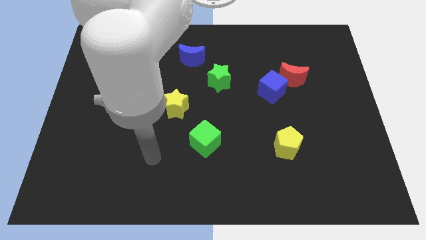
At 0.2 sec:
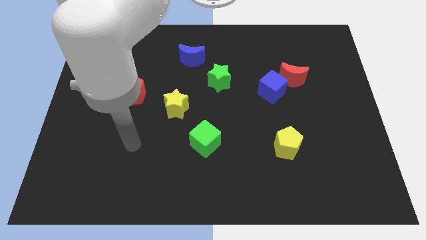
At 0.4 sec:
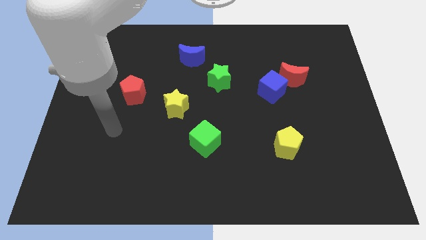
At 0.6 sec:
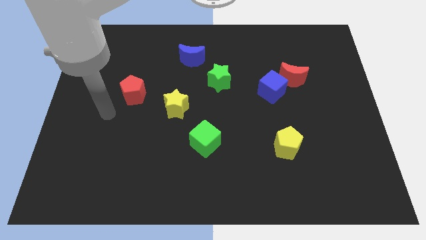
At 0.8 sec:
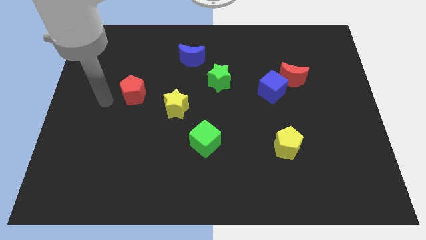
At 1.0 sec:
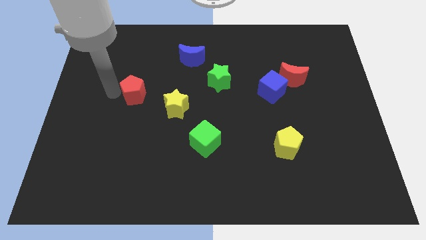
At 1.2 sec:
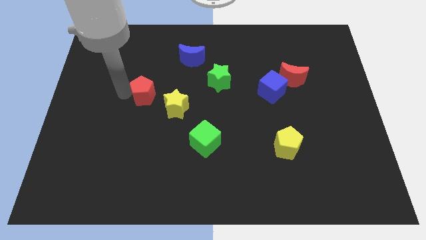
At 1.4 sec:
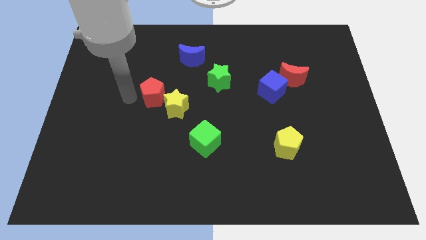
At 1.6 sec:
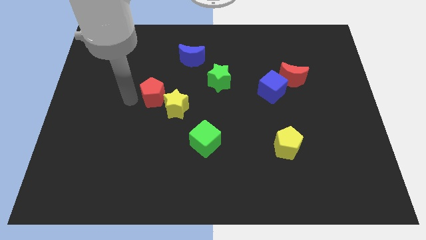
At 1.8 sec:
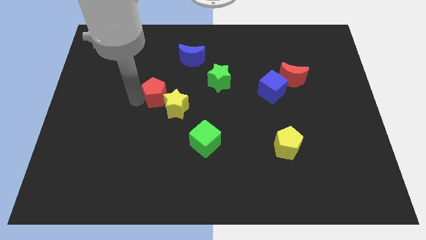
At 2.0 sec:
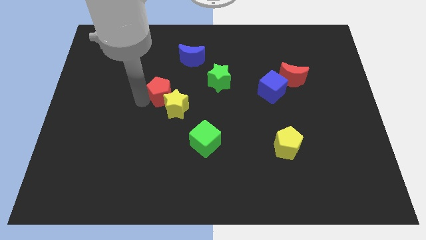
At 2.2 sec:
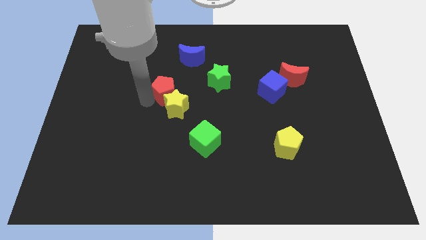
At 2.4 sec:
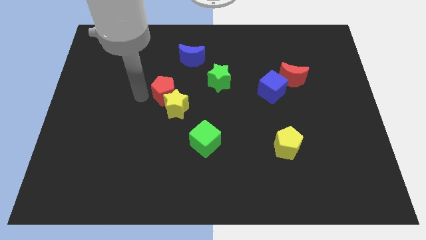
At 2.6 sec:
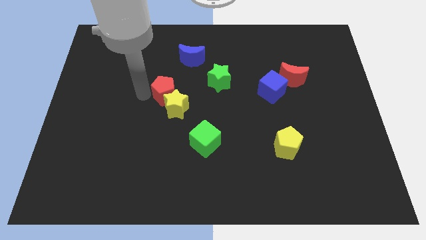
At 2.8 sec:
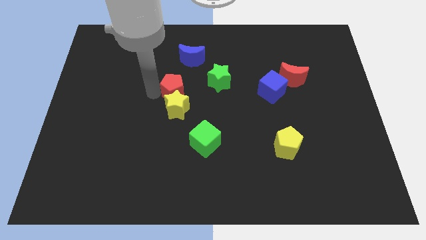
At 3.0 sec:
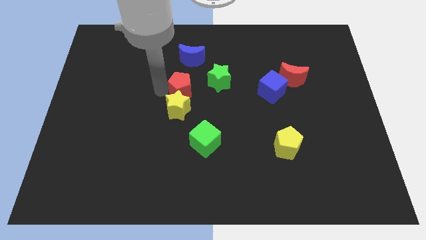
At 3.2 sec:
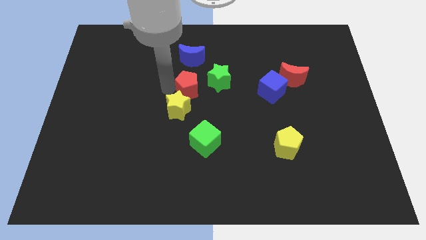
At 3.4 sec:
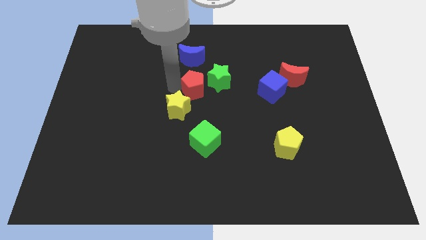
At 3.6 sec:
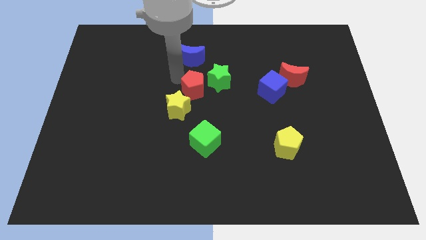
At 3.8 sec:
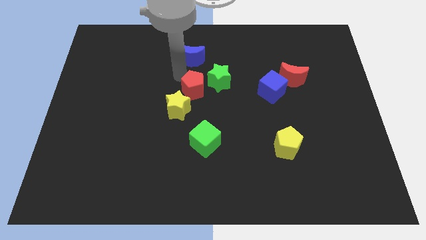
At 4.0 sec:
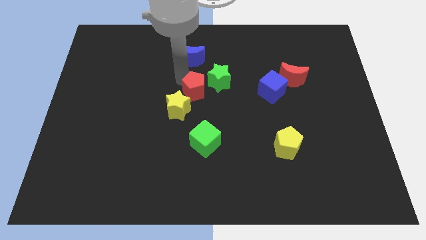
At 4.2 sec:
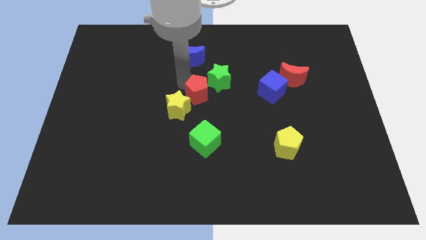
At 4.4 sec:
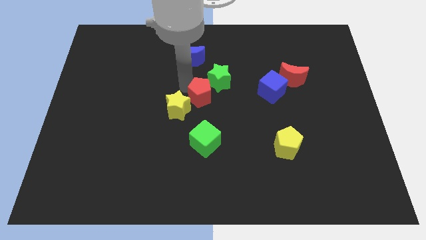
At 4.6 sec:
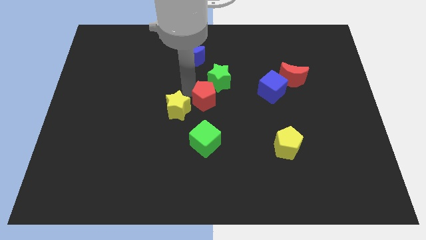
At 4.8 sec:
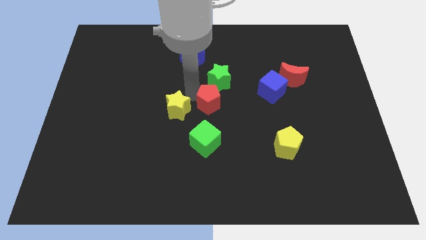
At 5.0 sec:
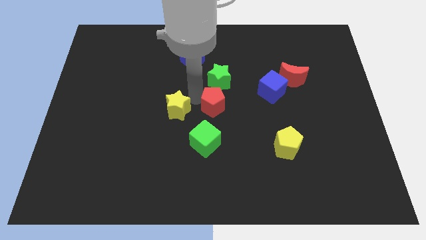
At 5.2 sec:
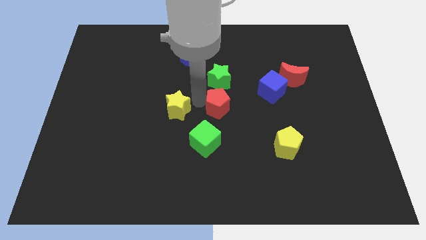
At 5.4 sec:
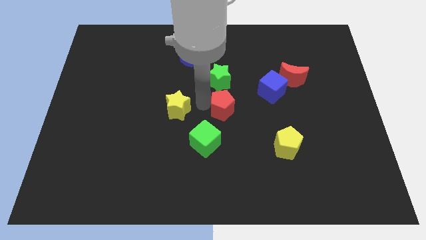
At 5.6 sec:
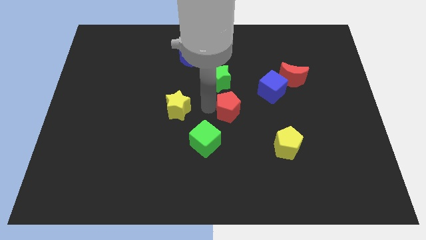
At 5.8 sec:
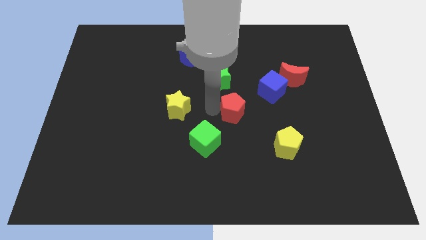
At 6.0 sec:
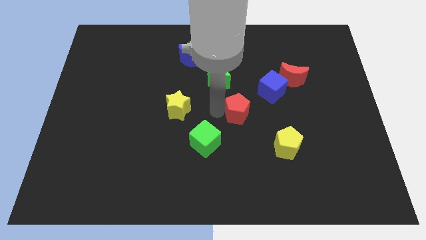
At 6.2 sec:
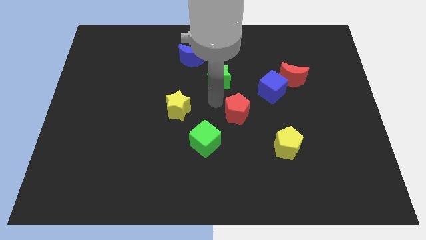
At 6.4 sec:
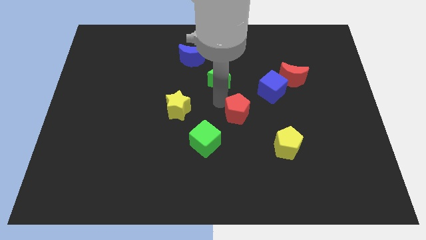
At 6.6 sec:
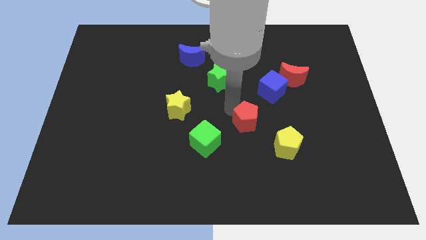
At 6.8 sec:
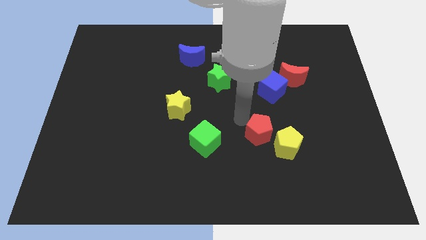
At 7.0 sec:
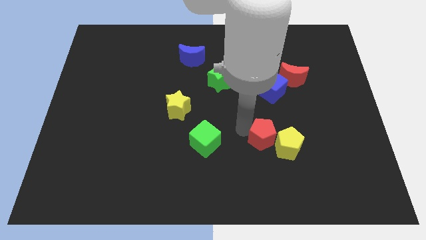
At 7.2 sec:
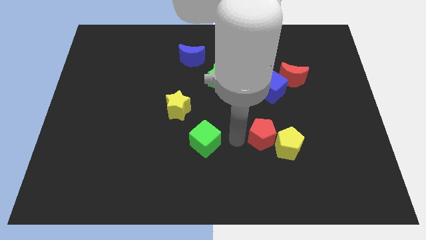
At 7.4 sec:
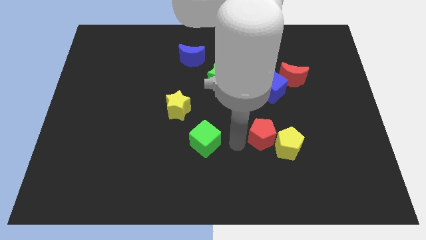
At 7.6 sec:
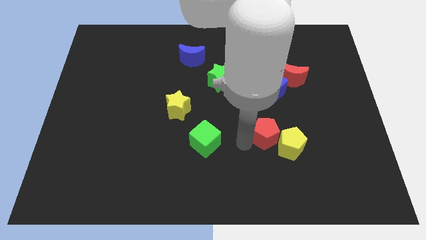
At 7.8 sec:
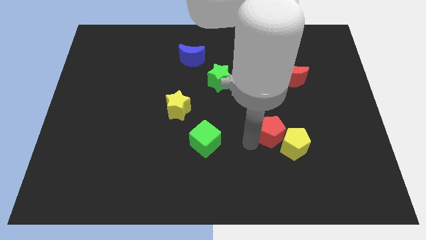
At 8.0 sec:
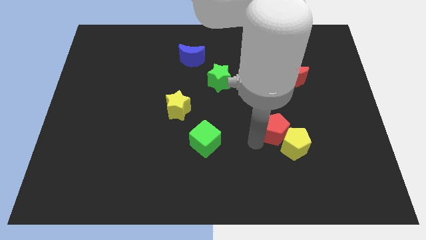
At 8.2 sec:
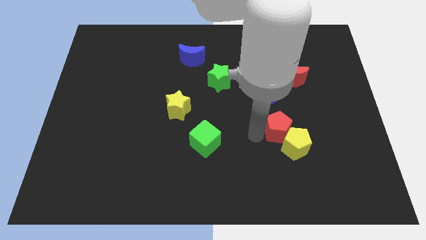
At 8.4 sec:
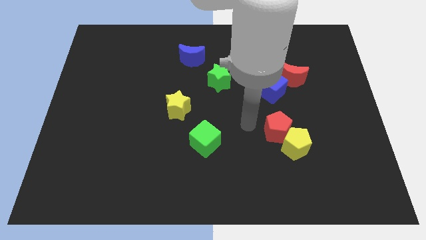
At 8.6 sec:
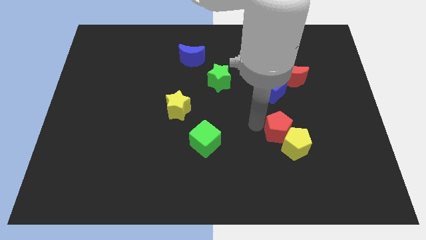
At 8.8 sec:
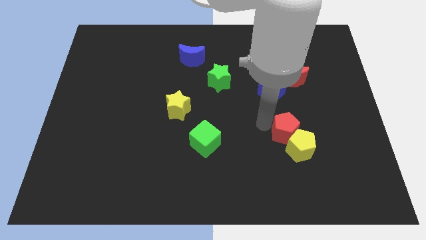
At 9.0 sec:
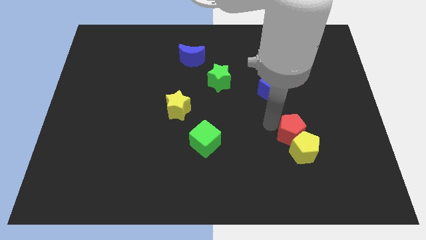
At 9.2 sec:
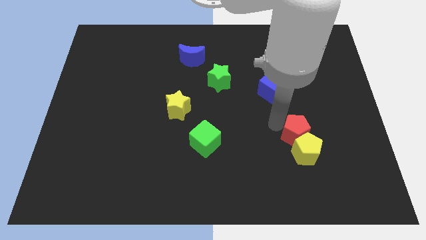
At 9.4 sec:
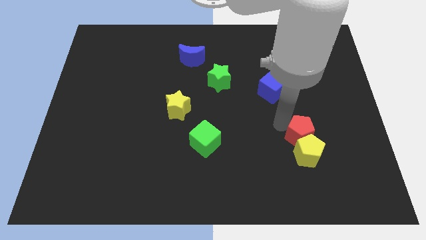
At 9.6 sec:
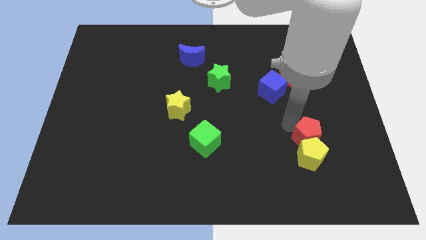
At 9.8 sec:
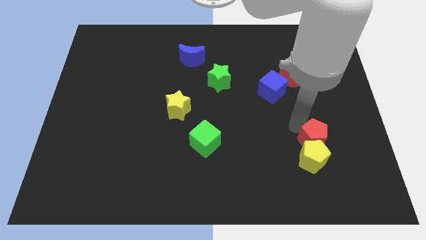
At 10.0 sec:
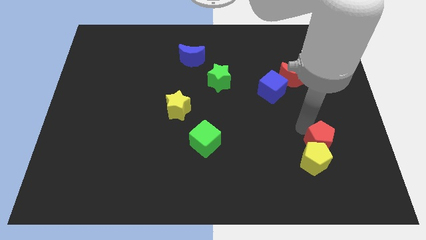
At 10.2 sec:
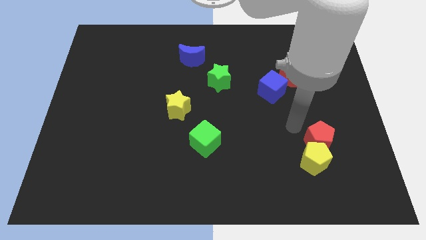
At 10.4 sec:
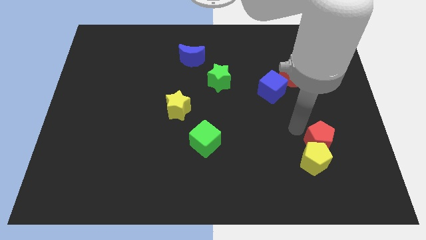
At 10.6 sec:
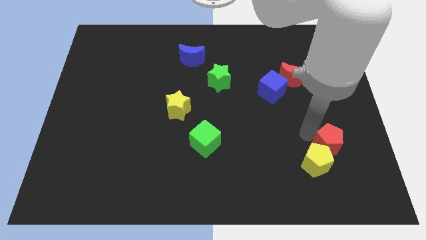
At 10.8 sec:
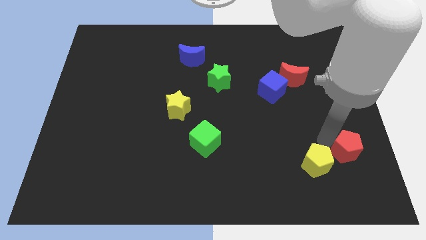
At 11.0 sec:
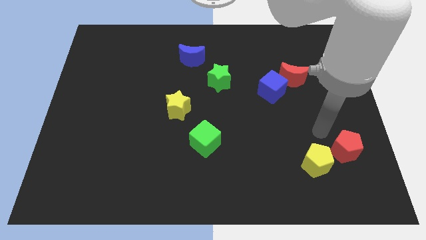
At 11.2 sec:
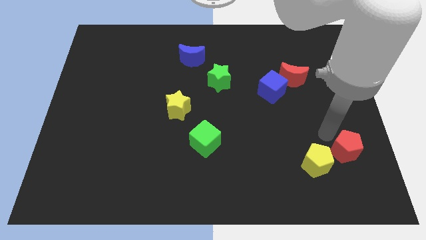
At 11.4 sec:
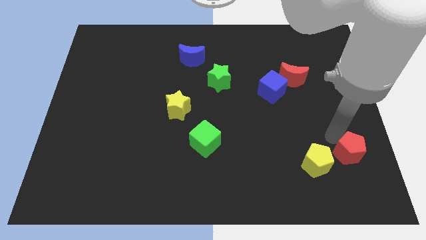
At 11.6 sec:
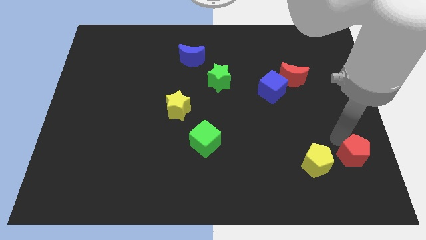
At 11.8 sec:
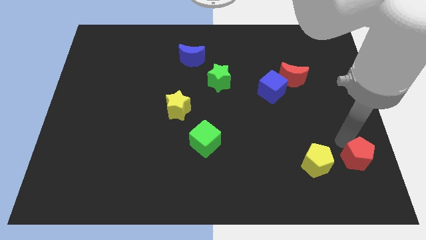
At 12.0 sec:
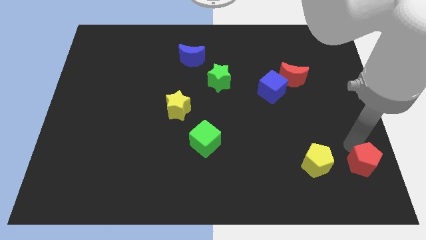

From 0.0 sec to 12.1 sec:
move the red pentagon to the bottom right of the board

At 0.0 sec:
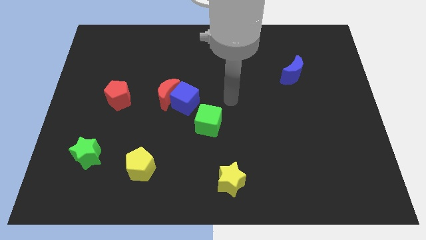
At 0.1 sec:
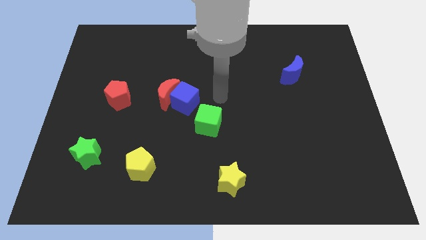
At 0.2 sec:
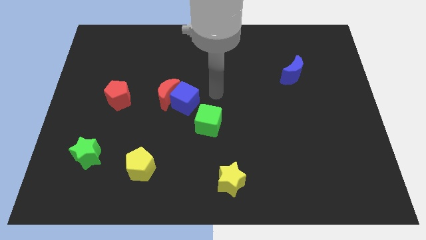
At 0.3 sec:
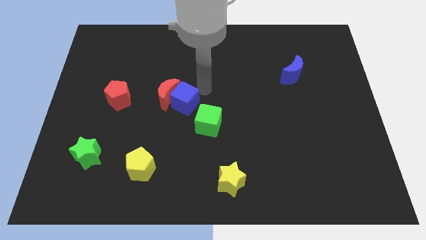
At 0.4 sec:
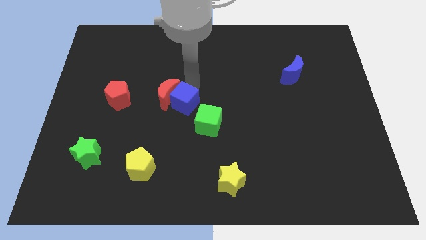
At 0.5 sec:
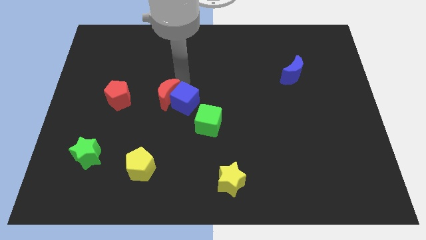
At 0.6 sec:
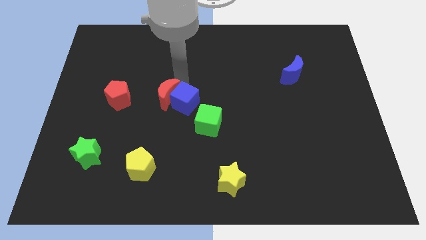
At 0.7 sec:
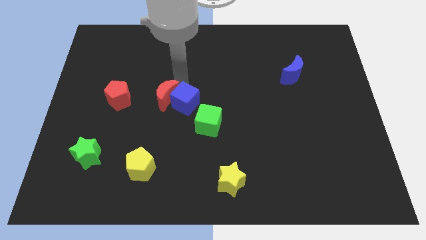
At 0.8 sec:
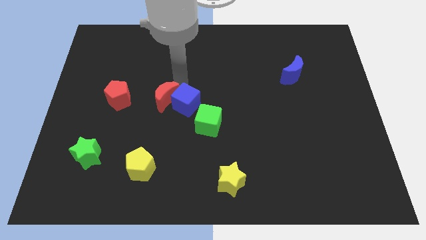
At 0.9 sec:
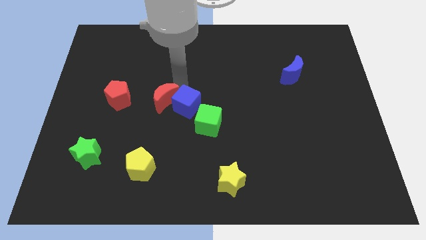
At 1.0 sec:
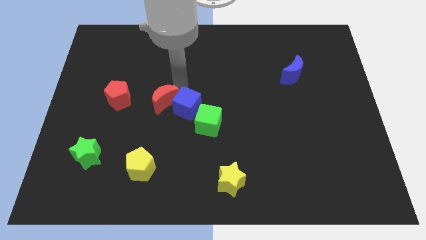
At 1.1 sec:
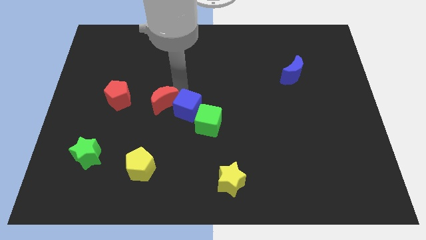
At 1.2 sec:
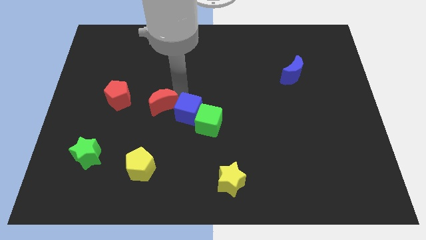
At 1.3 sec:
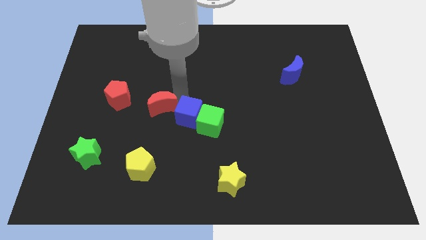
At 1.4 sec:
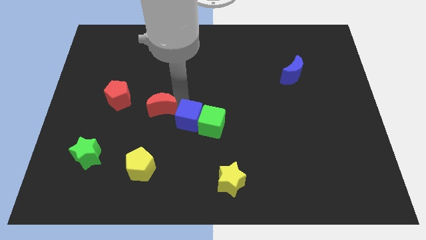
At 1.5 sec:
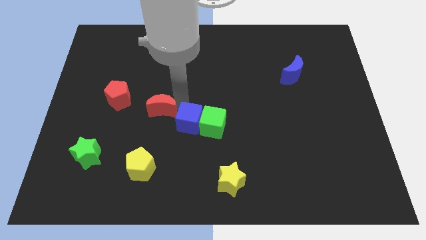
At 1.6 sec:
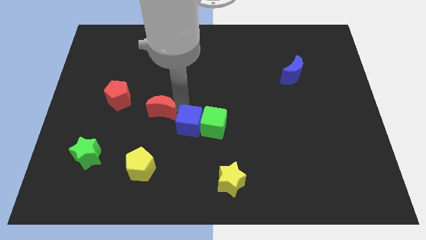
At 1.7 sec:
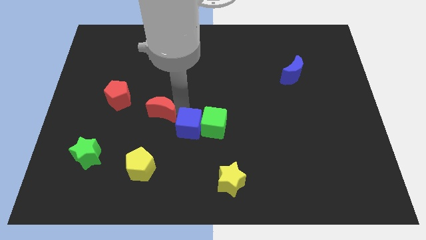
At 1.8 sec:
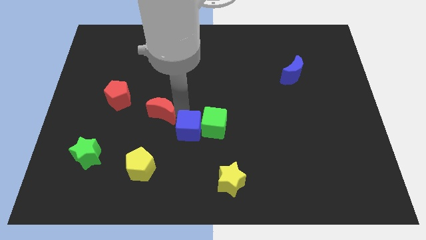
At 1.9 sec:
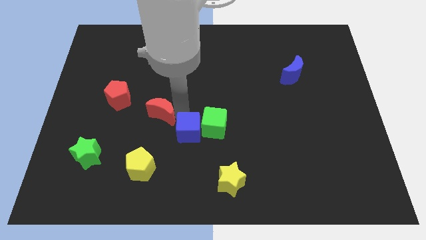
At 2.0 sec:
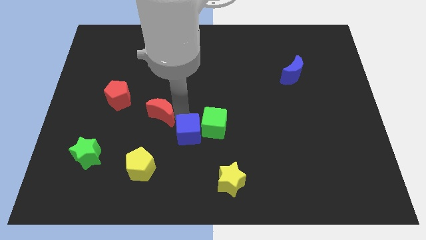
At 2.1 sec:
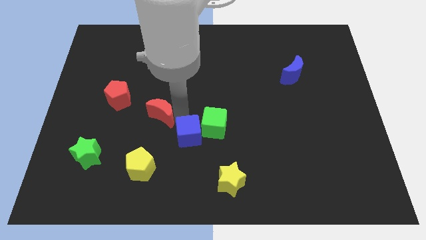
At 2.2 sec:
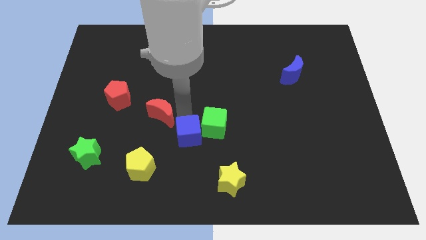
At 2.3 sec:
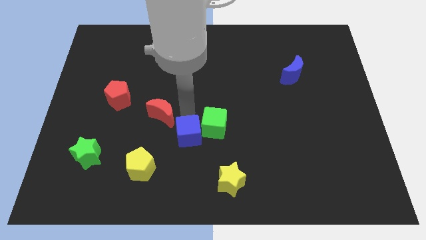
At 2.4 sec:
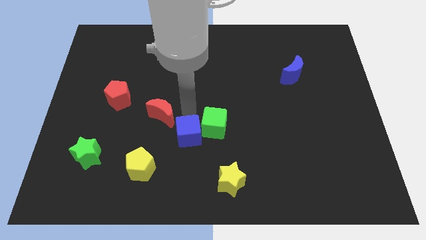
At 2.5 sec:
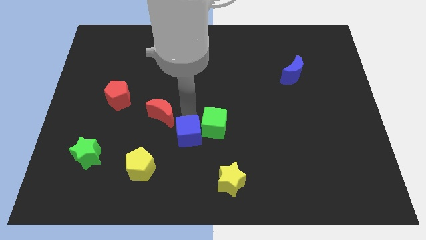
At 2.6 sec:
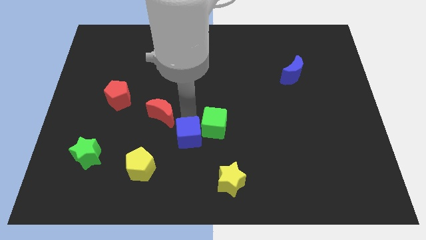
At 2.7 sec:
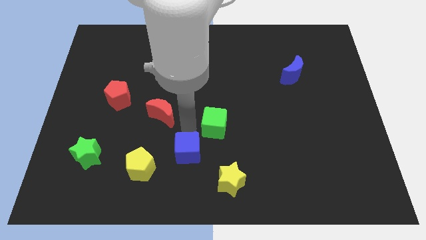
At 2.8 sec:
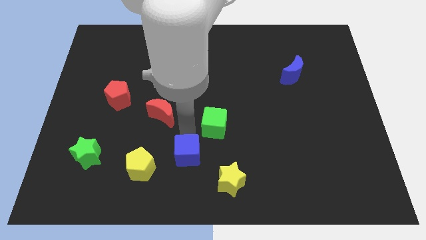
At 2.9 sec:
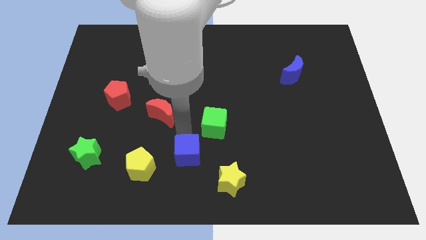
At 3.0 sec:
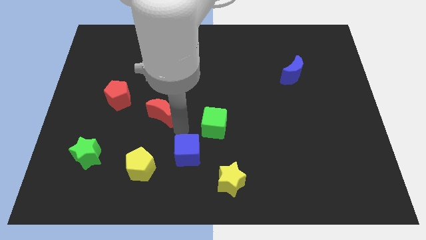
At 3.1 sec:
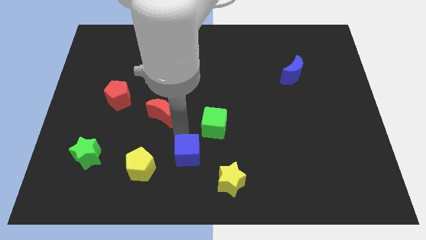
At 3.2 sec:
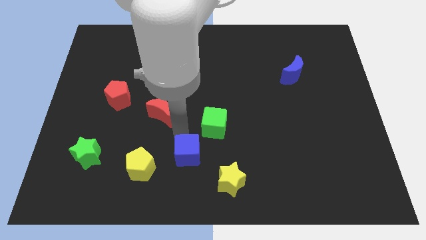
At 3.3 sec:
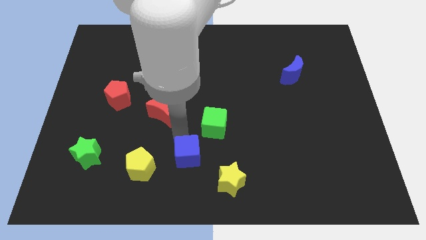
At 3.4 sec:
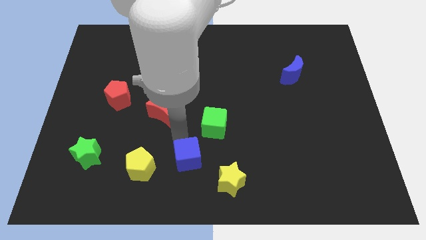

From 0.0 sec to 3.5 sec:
push the blue cube to the bottom
